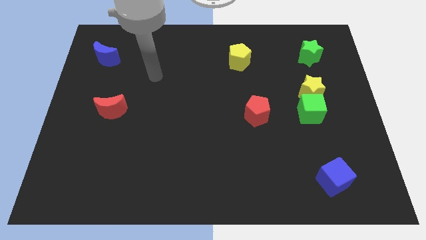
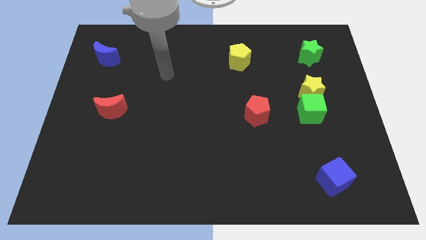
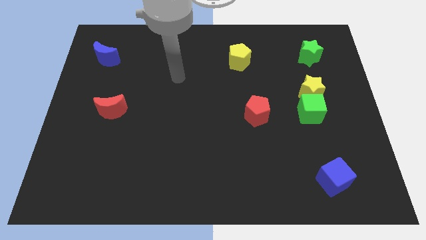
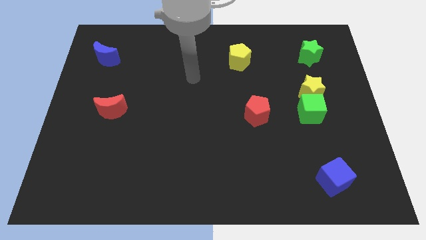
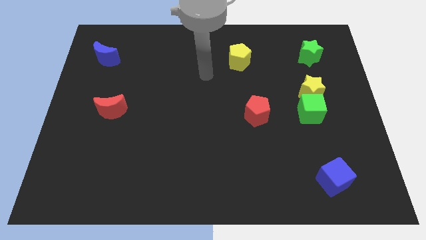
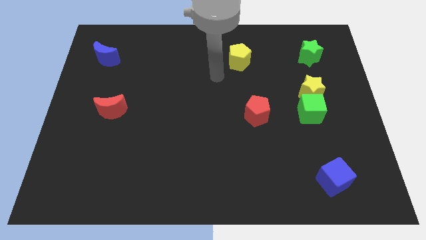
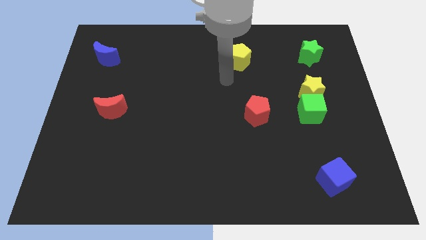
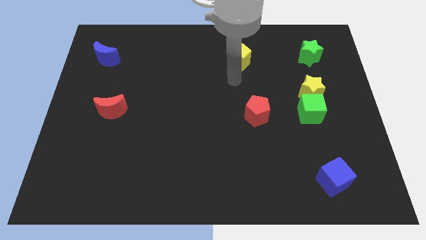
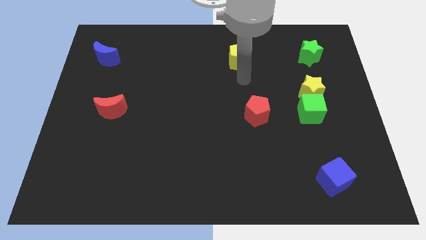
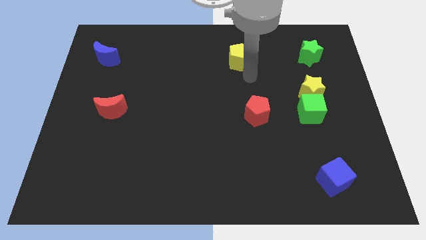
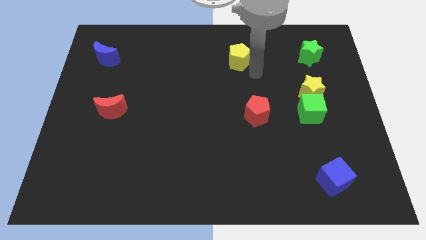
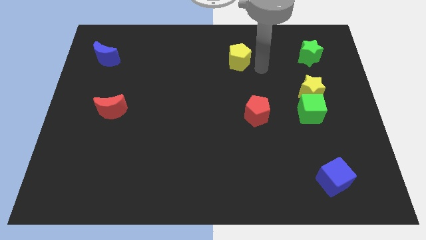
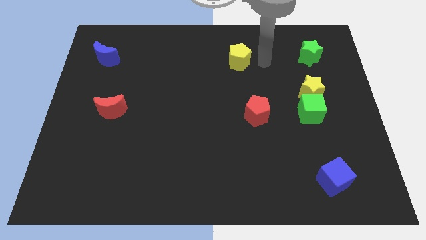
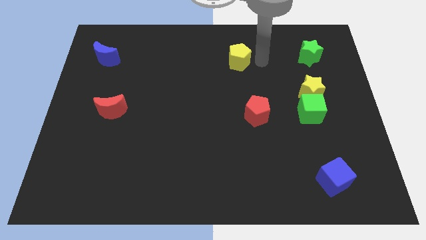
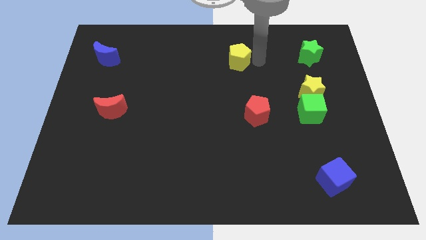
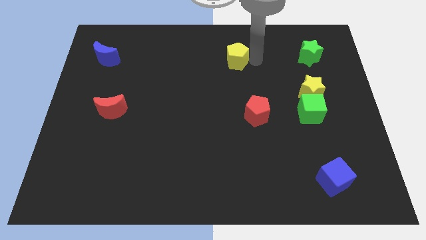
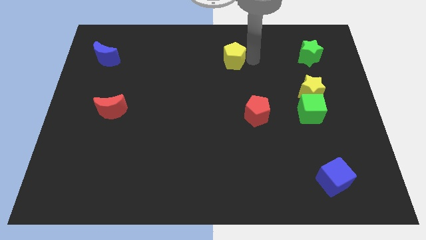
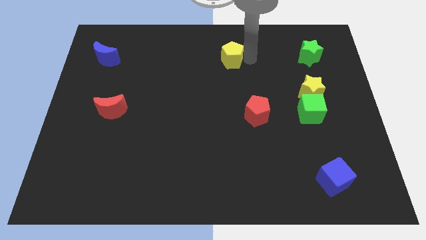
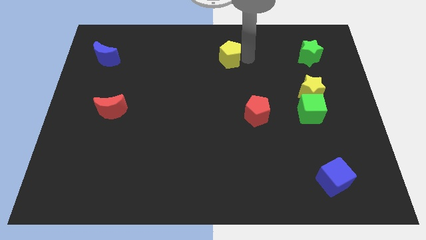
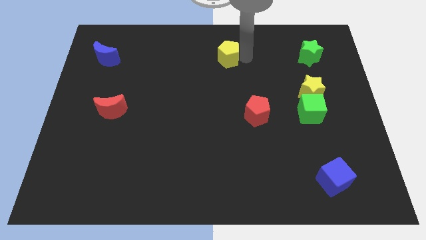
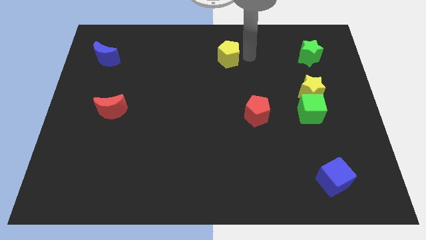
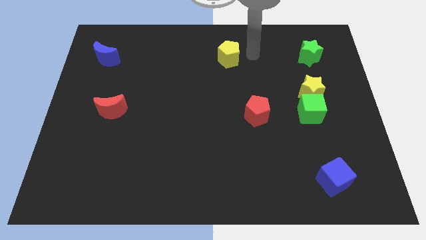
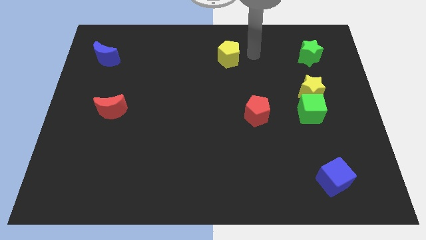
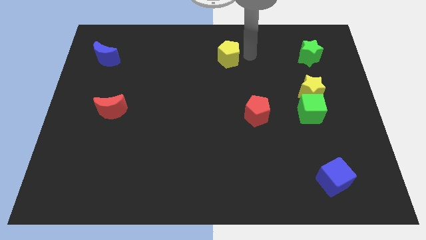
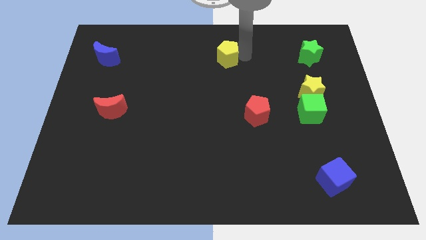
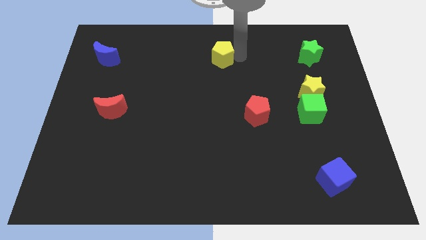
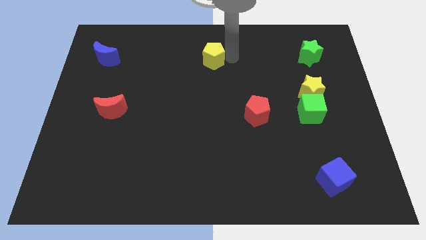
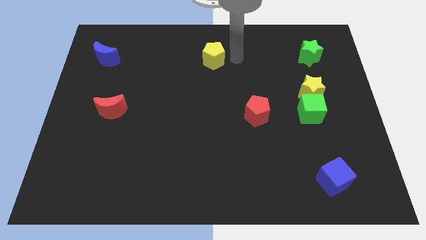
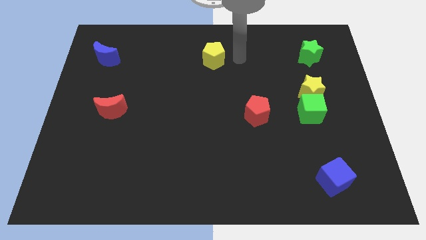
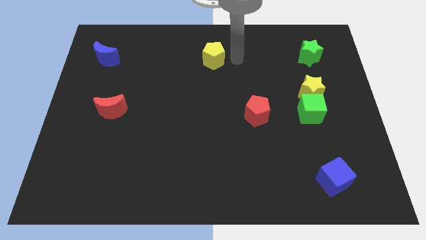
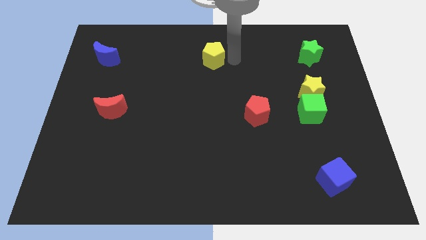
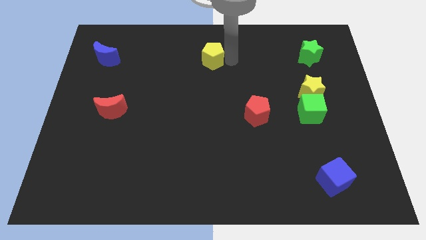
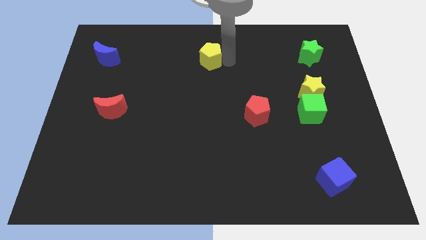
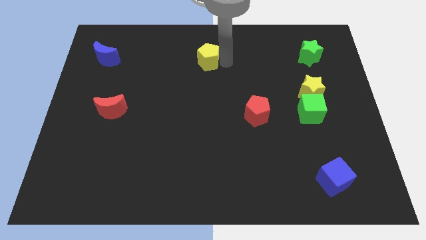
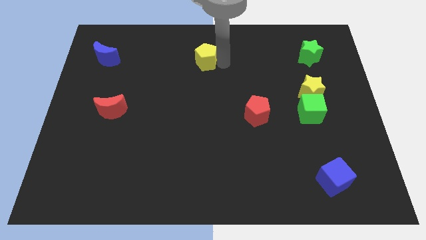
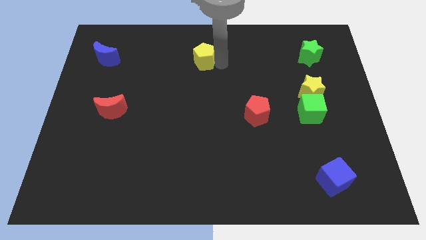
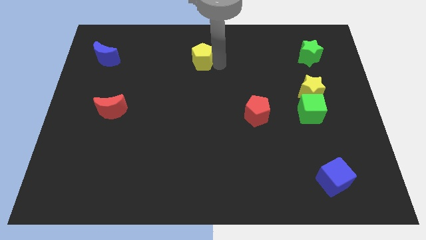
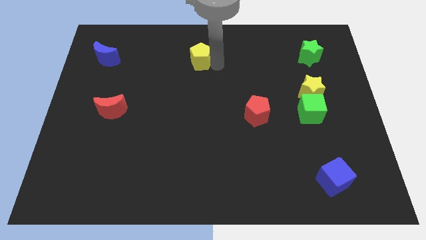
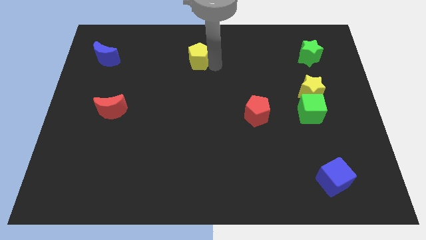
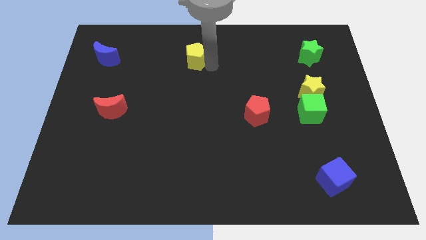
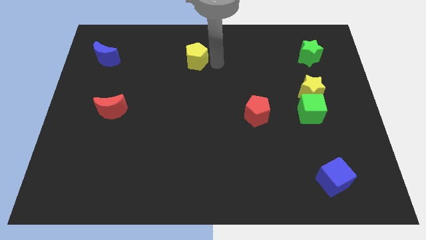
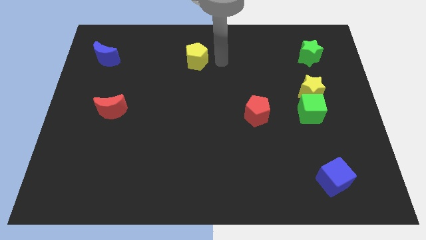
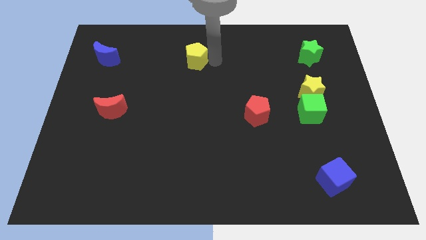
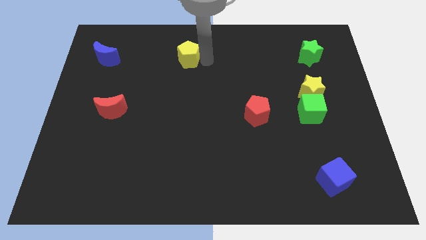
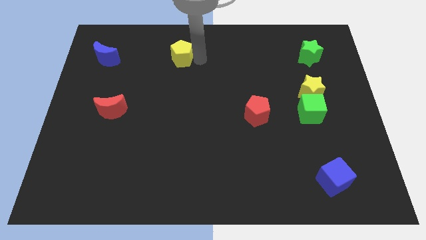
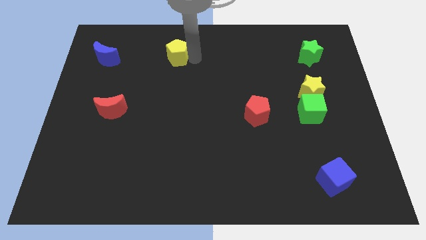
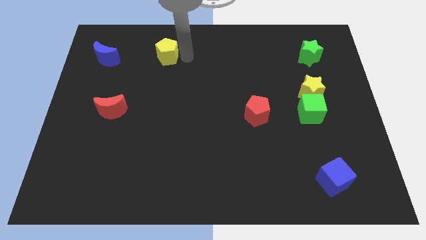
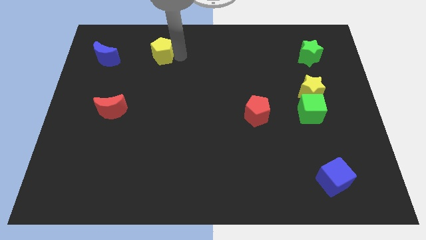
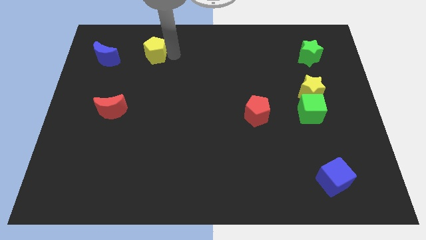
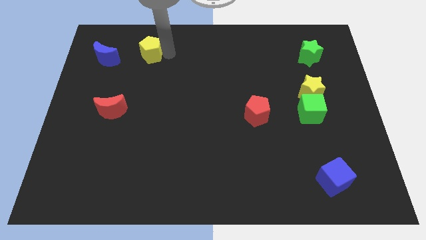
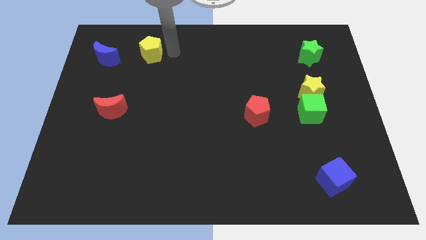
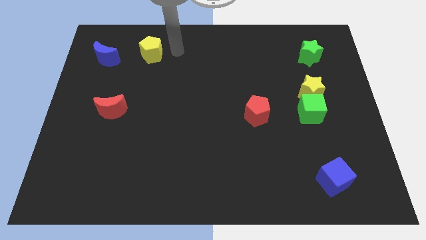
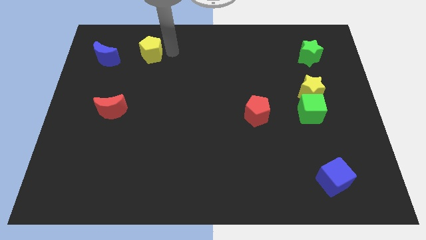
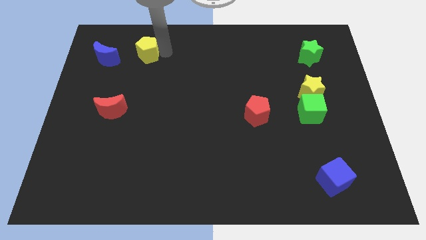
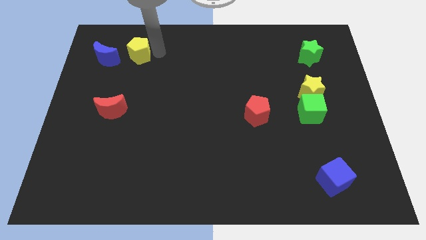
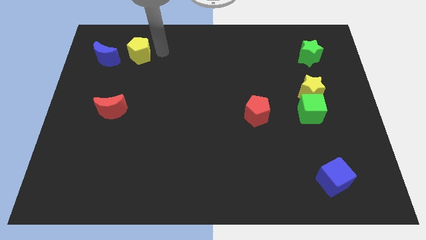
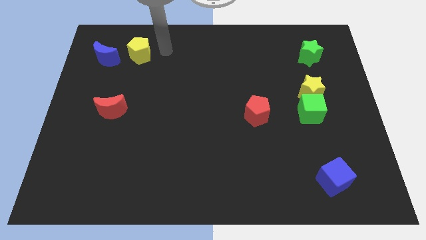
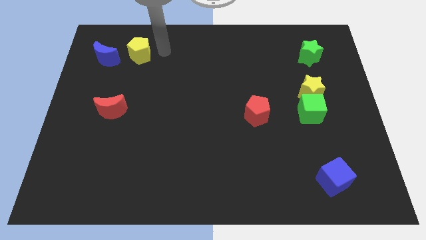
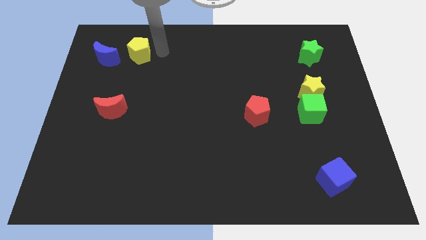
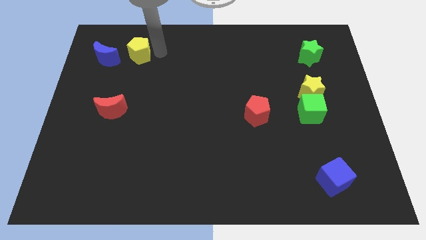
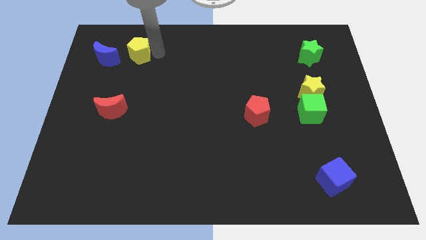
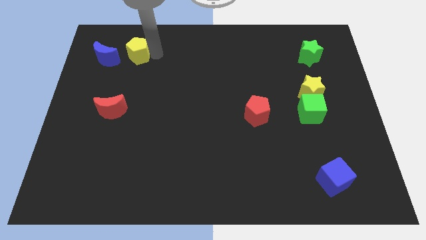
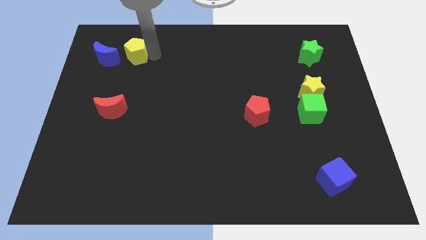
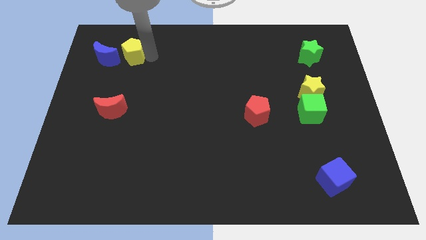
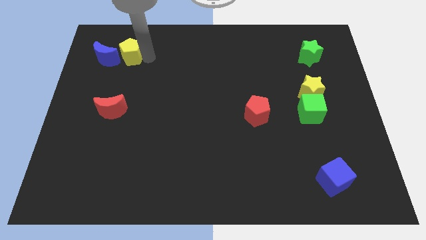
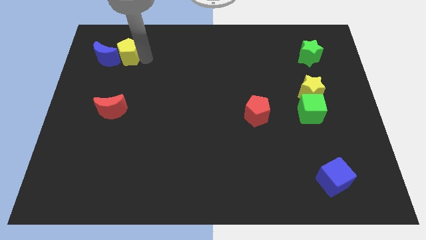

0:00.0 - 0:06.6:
put the yellow pentagon close to the blue moon

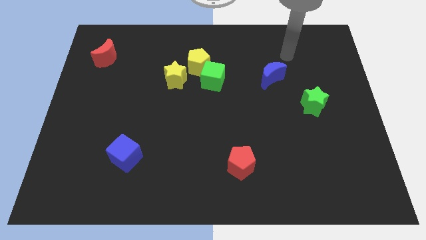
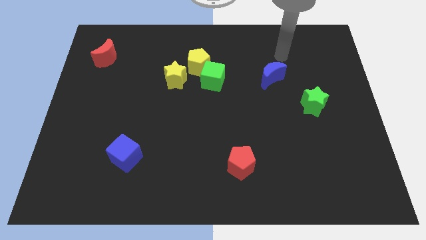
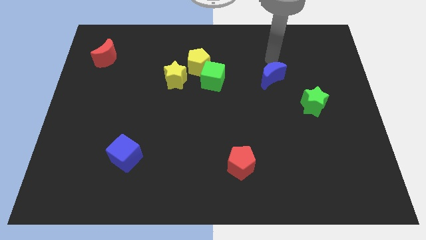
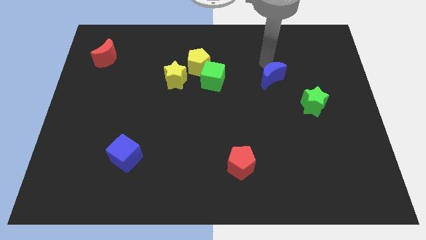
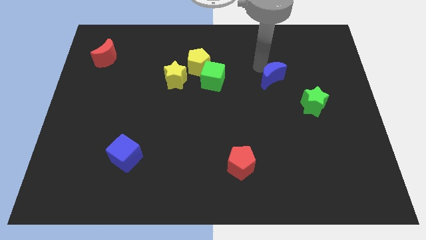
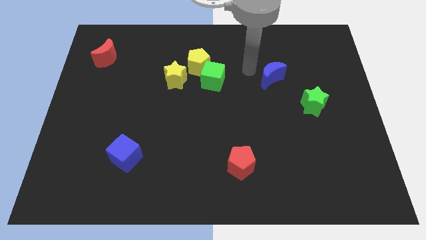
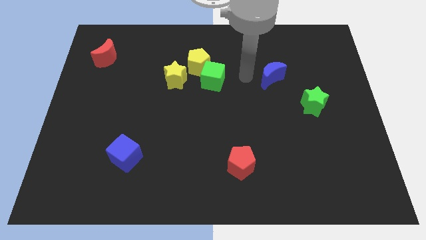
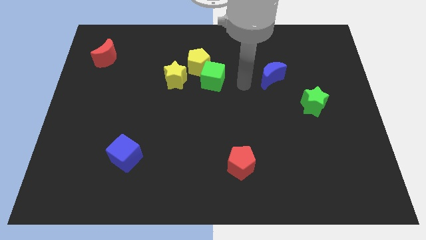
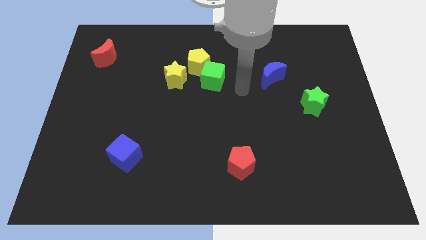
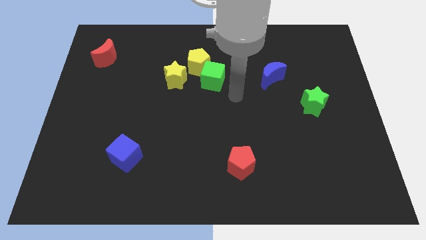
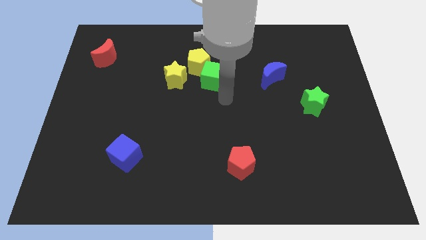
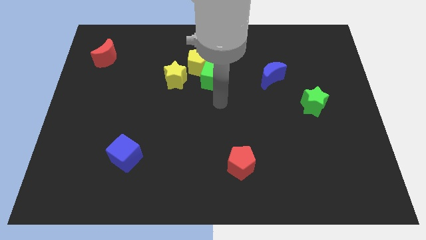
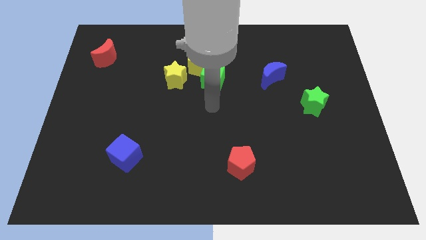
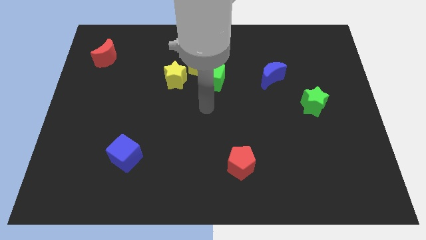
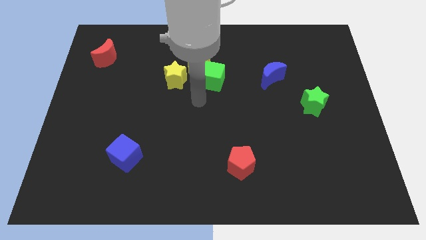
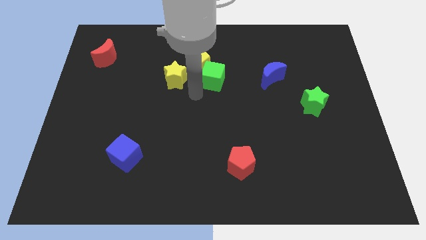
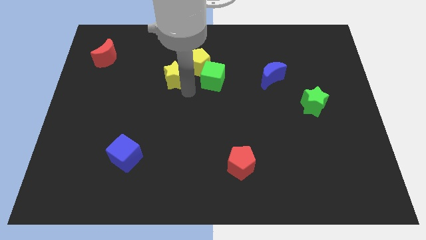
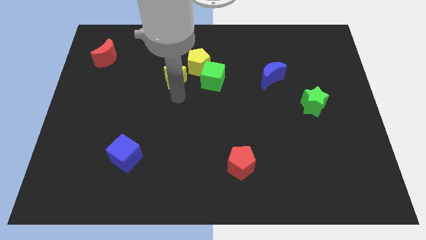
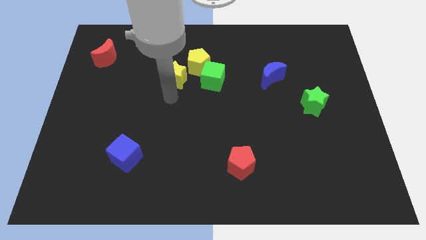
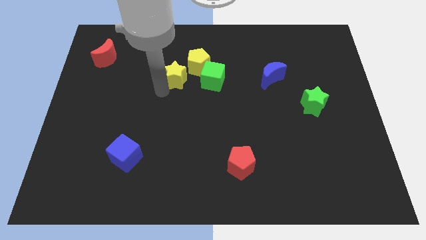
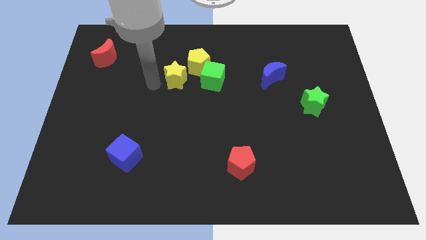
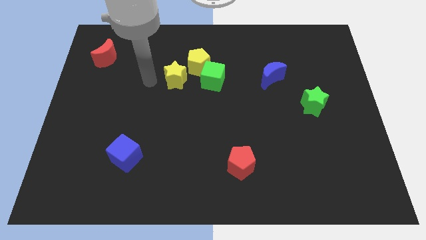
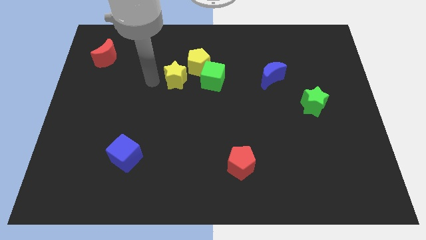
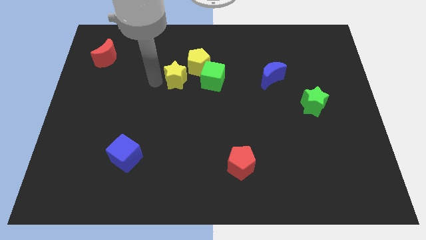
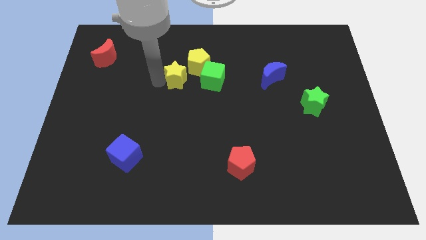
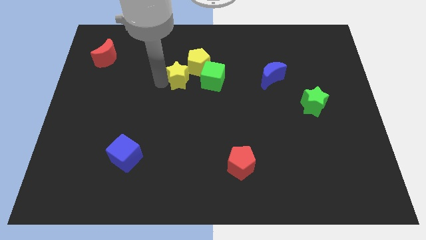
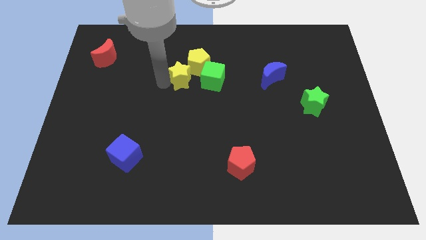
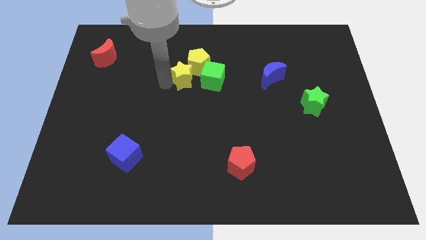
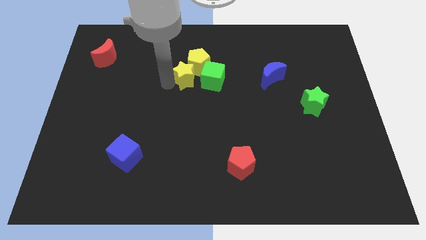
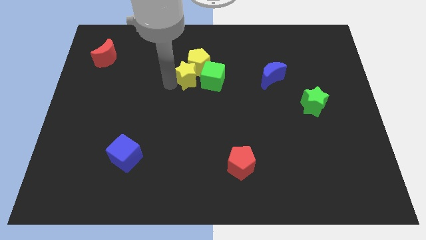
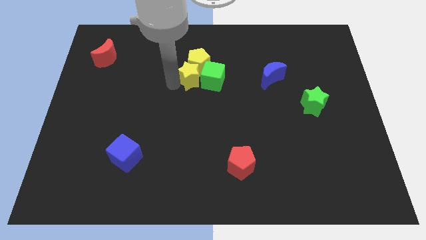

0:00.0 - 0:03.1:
push the yellow star to the green cube
